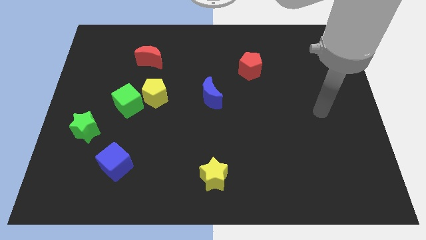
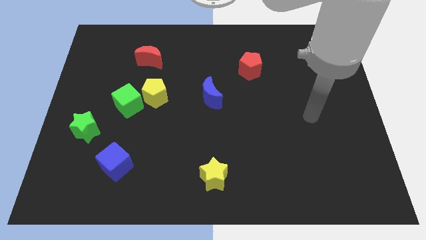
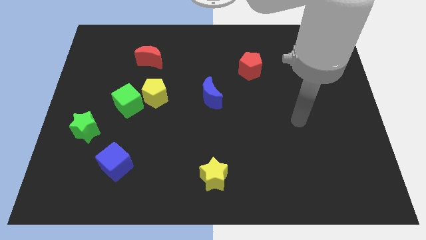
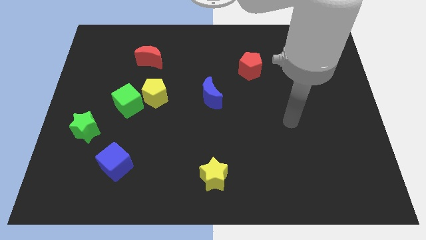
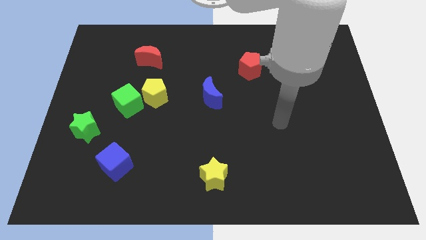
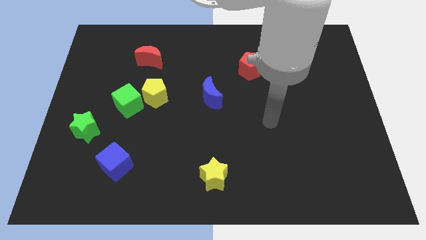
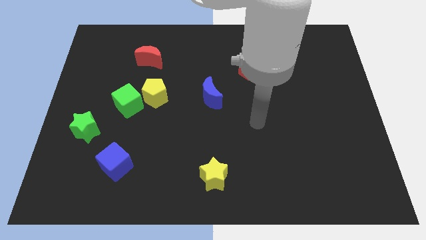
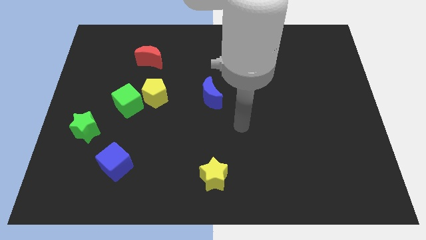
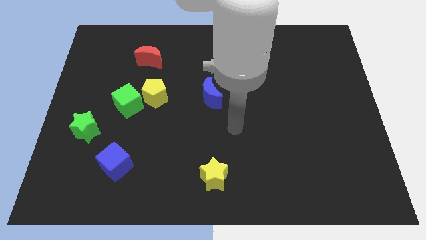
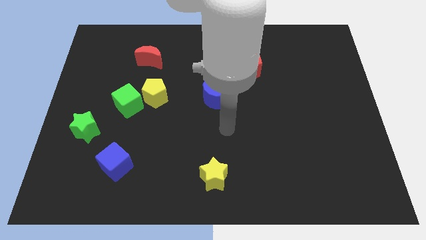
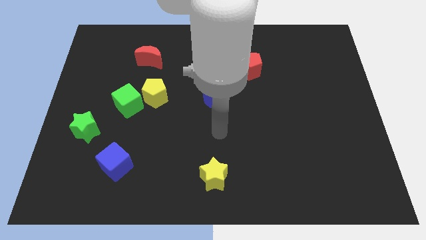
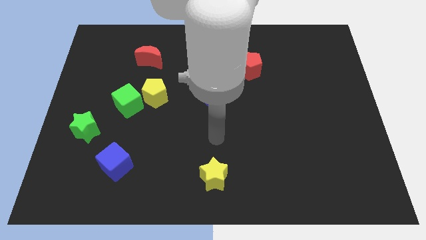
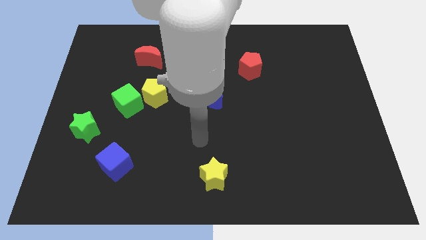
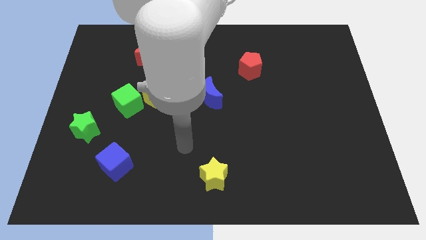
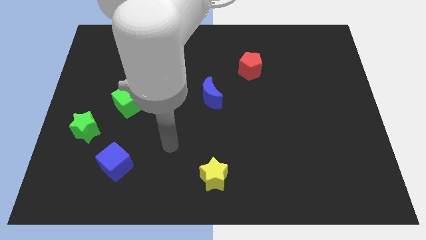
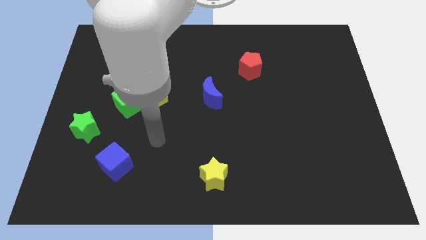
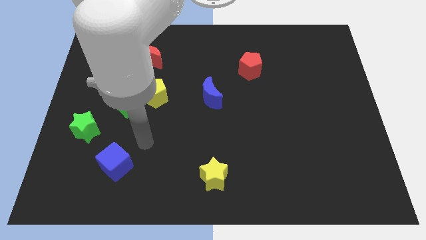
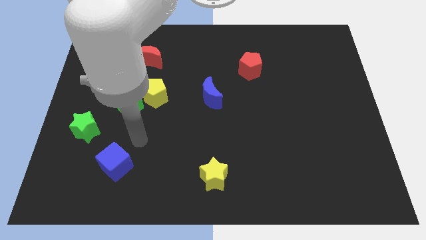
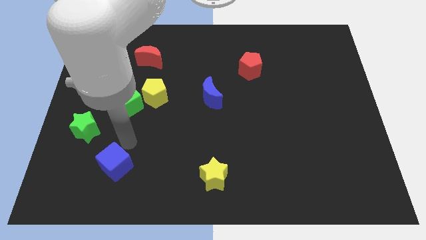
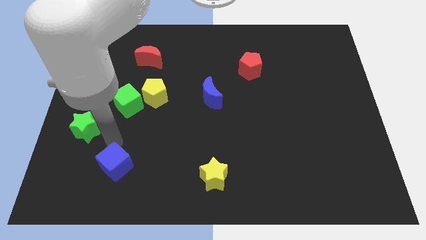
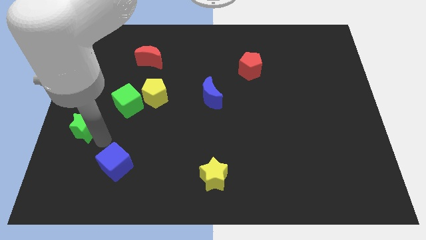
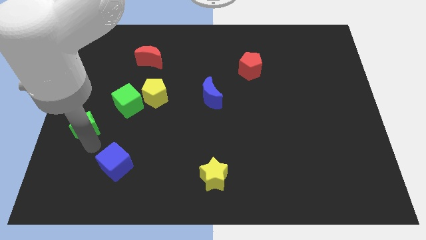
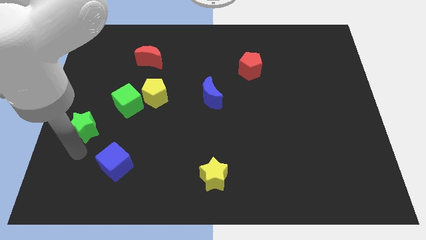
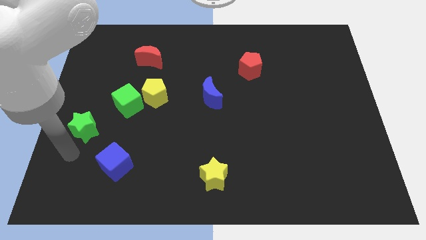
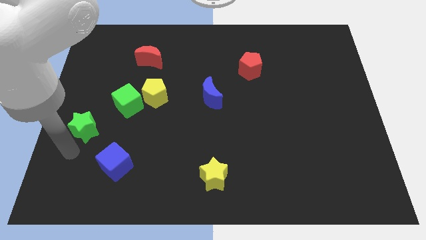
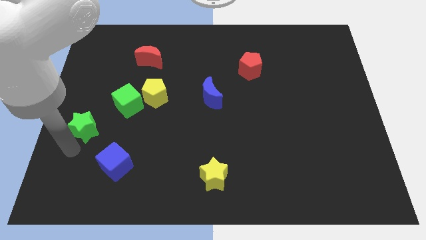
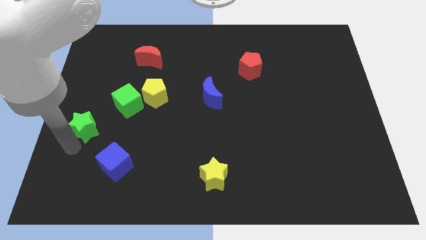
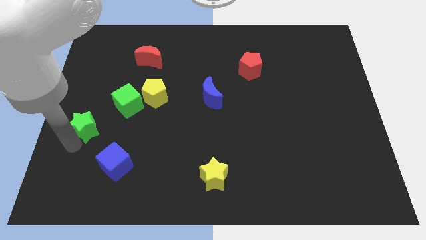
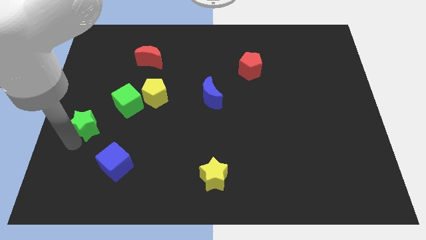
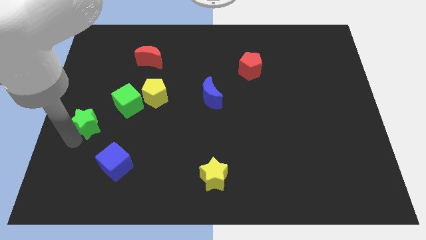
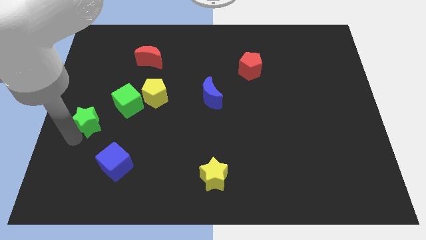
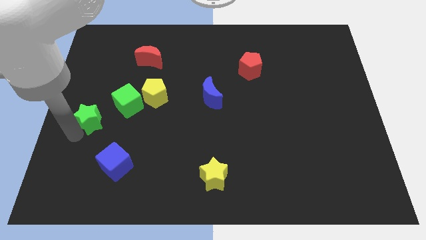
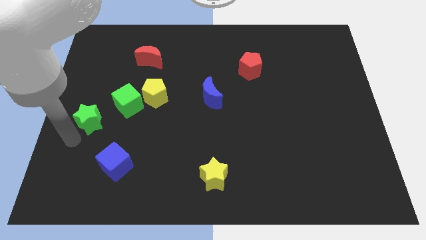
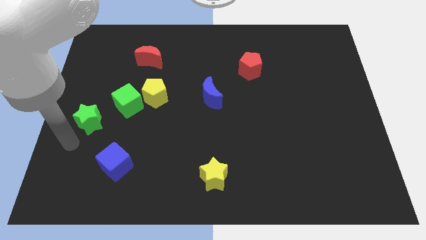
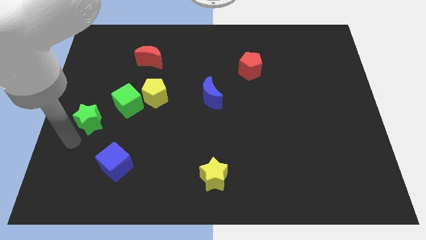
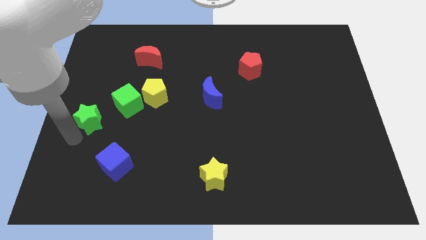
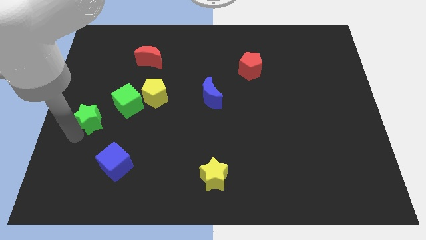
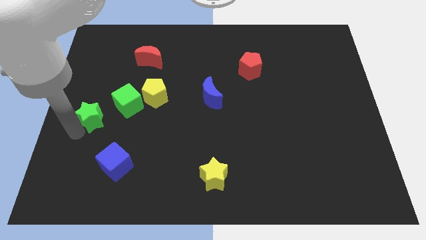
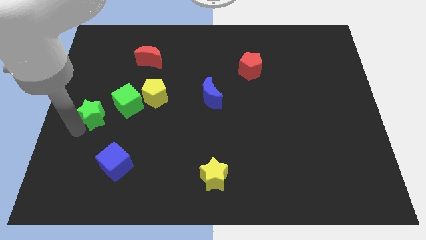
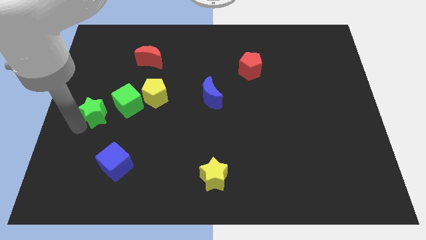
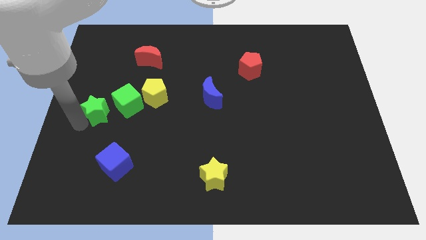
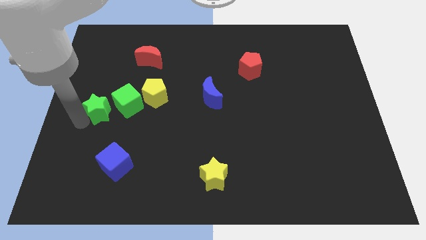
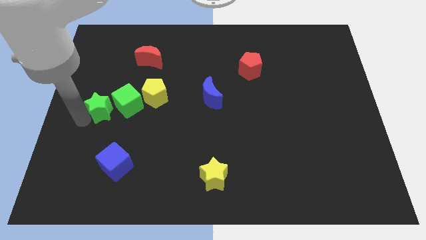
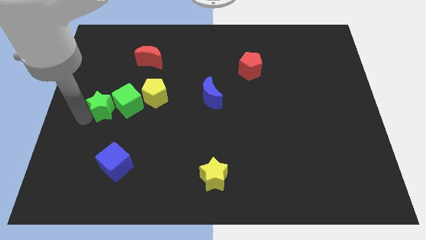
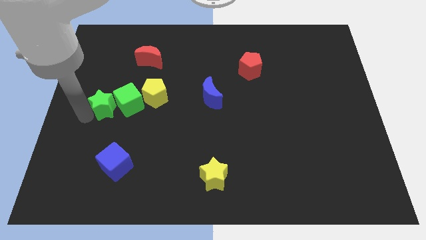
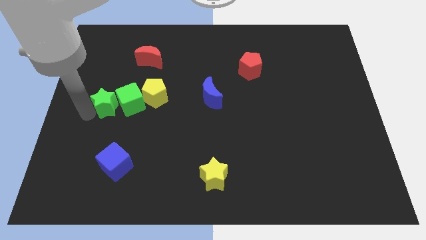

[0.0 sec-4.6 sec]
move the green star diagonally upwards and to the right a little bit

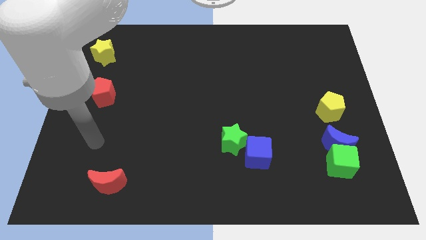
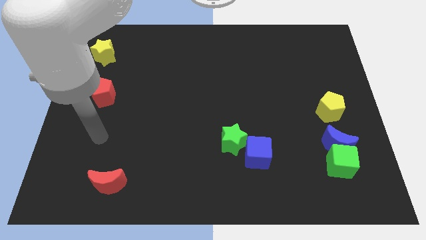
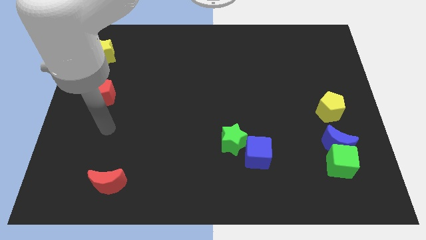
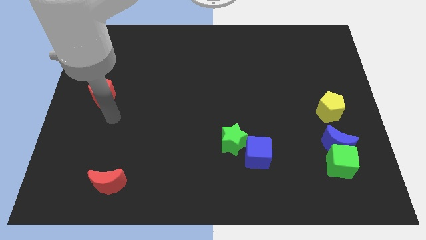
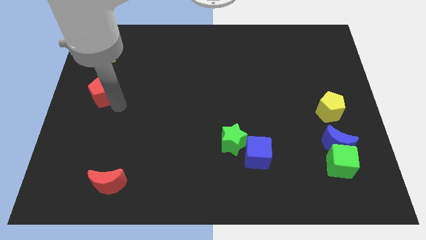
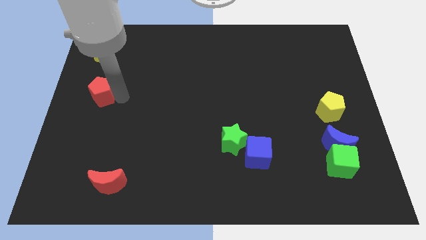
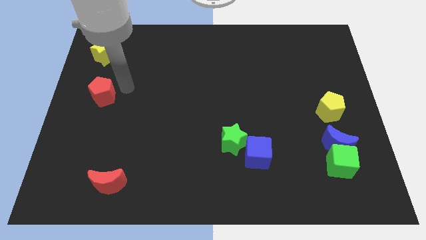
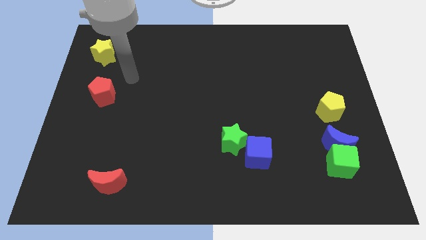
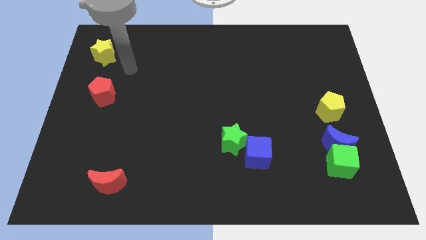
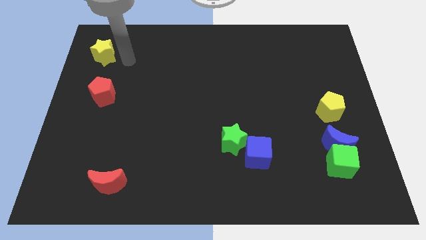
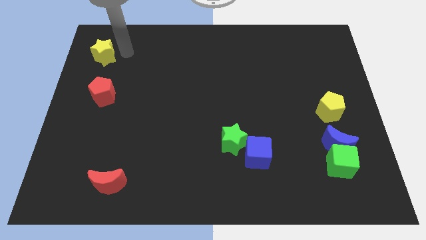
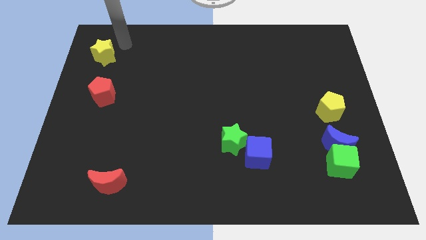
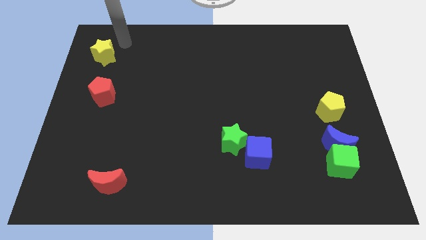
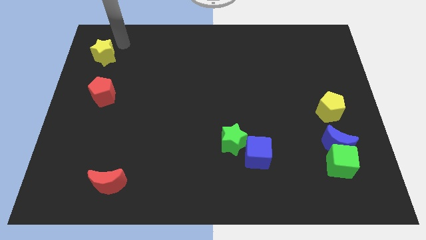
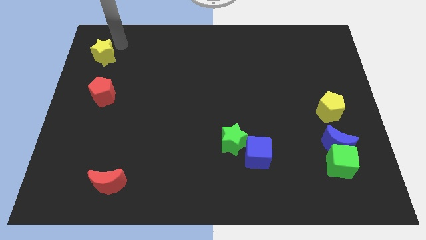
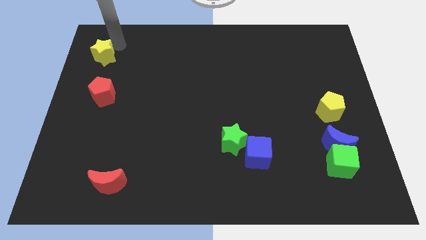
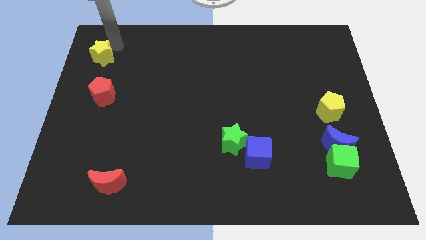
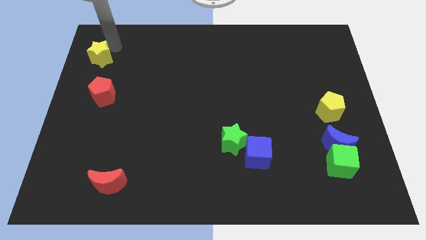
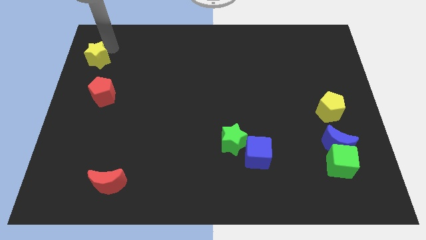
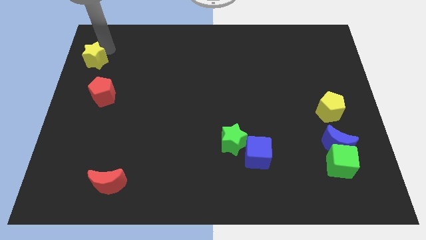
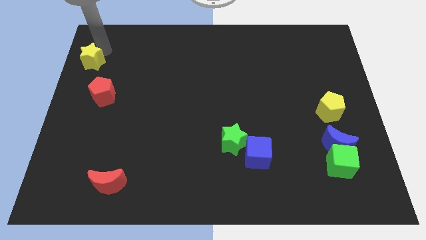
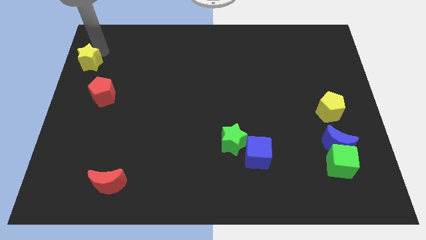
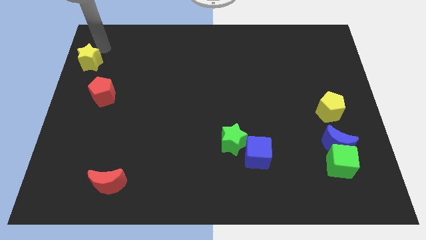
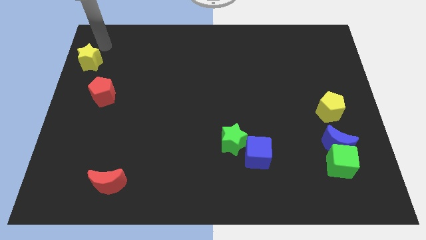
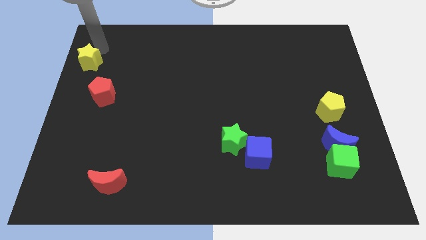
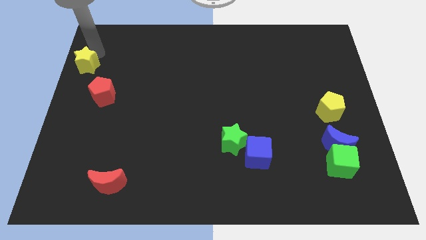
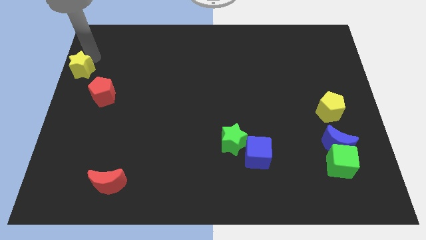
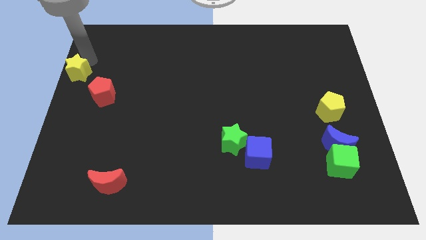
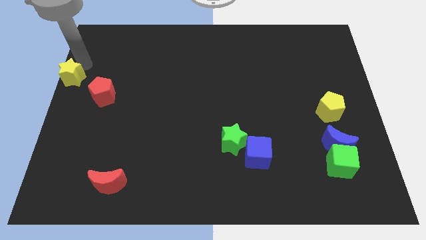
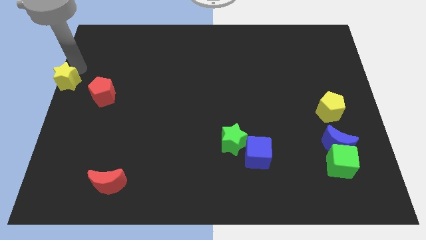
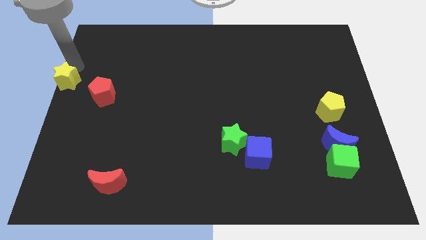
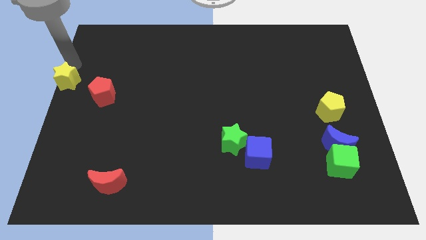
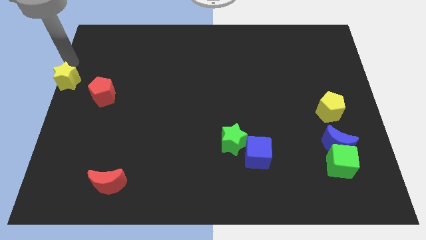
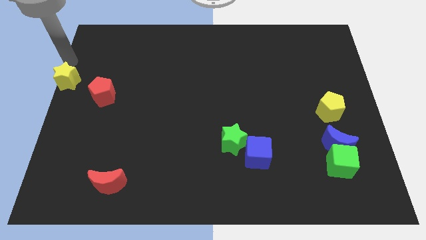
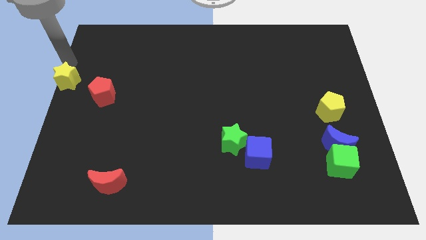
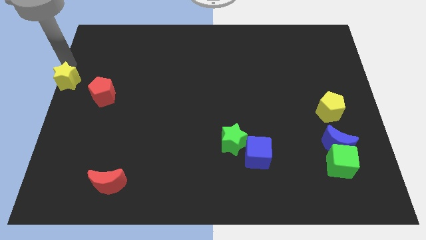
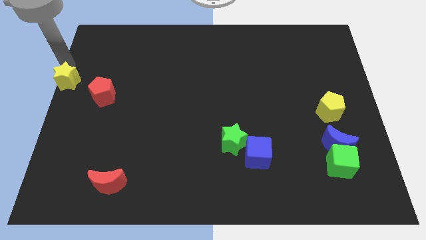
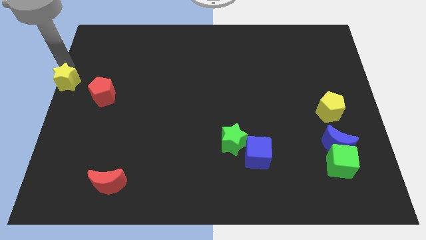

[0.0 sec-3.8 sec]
move the yellow star slightly downwards
